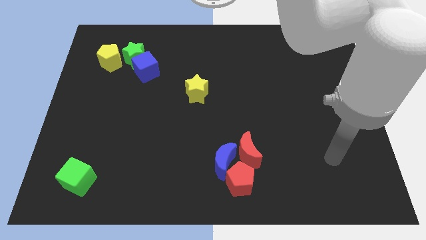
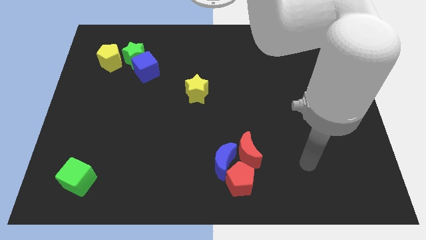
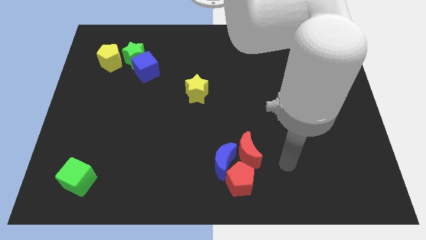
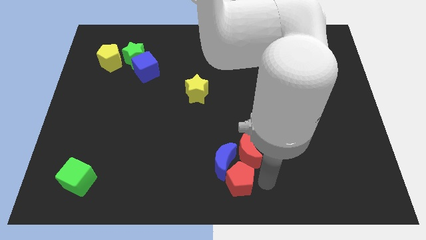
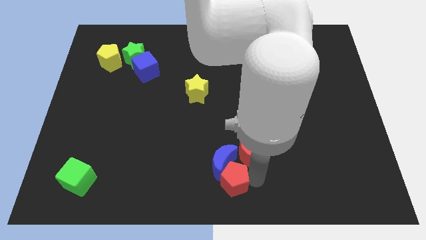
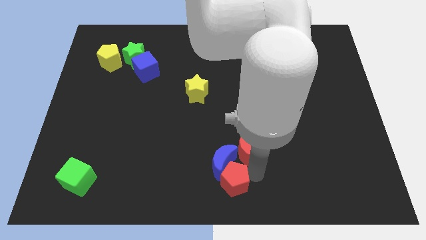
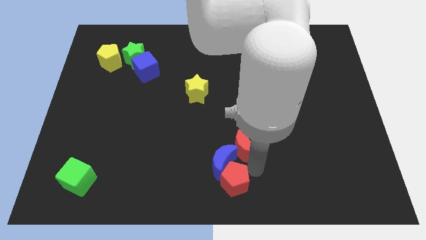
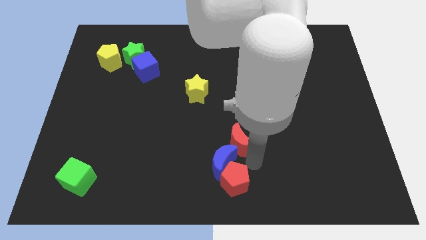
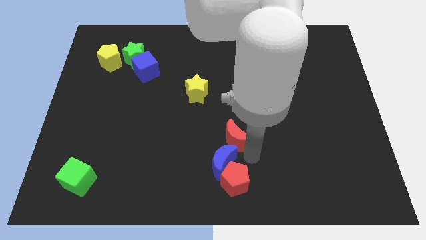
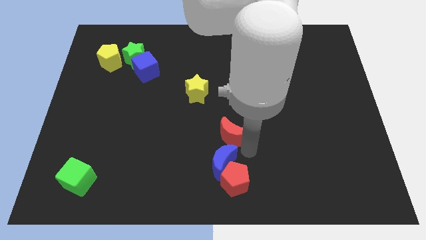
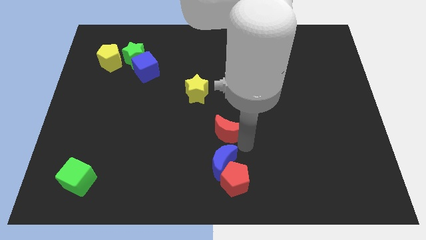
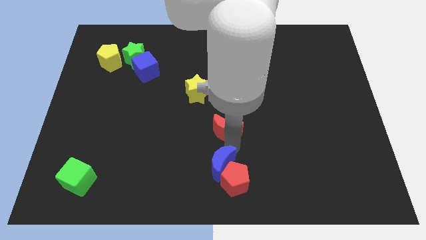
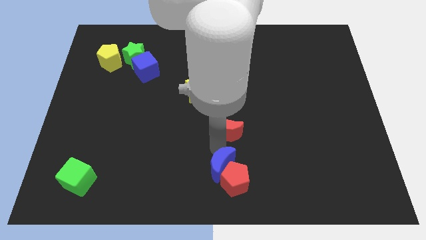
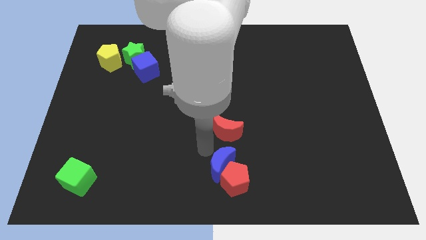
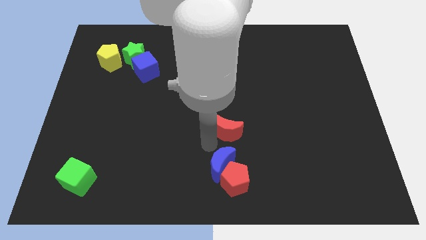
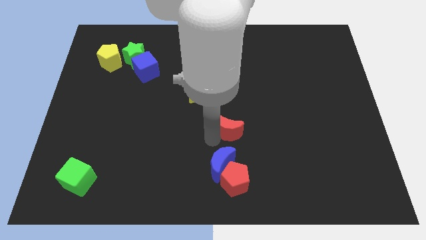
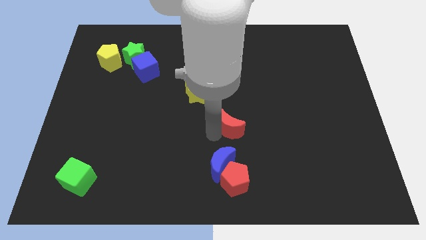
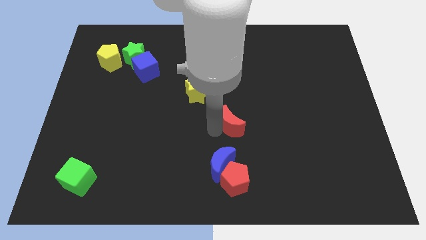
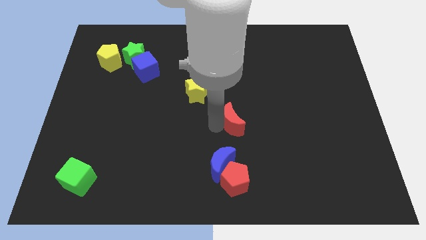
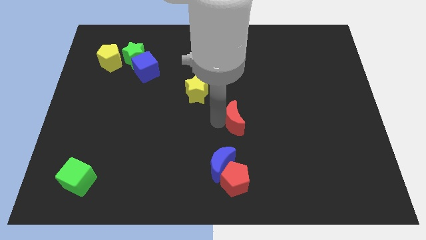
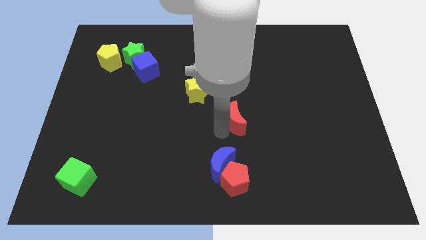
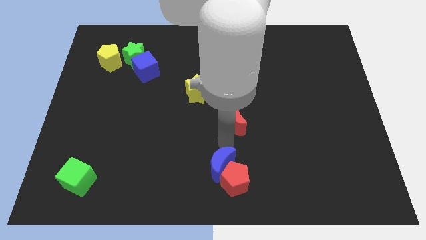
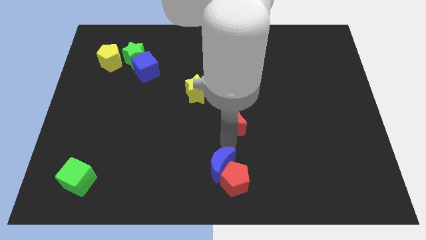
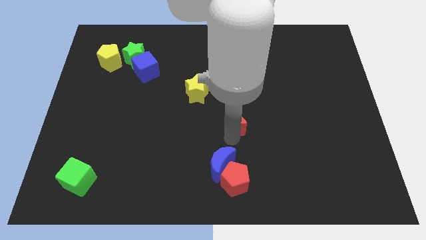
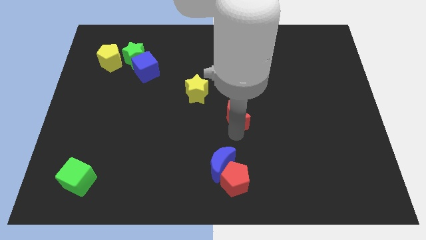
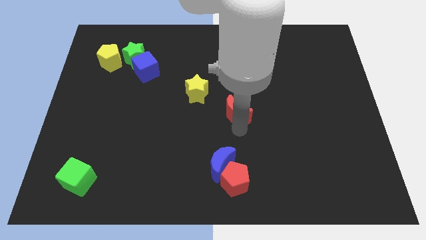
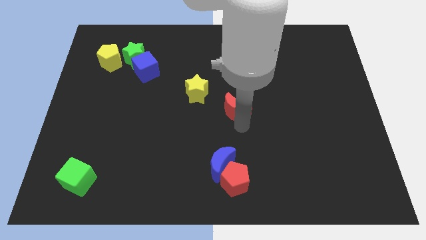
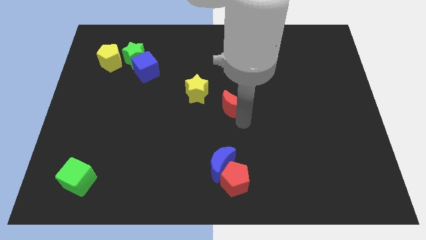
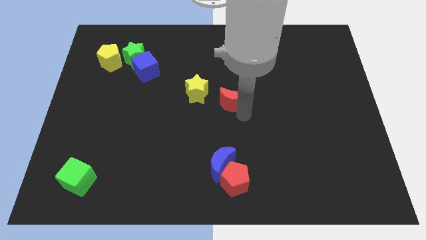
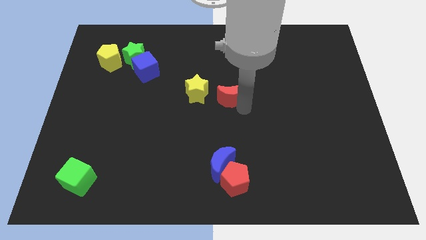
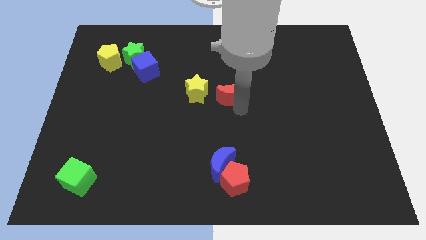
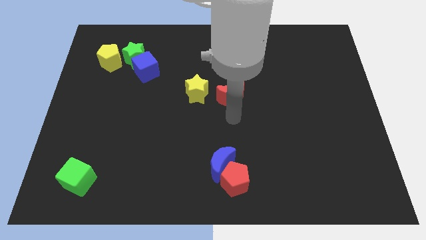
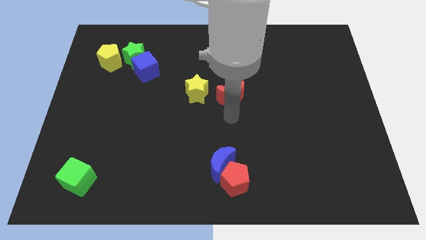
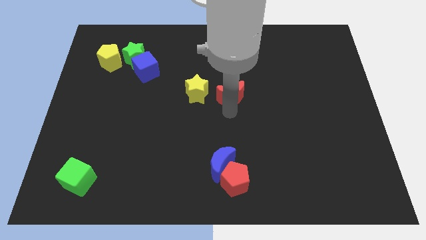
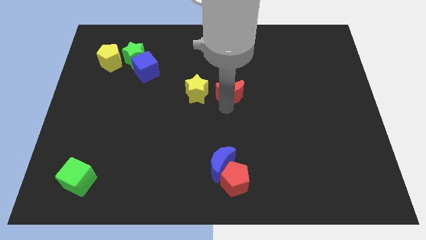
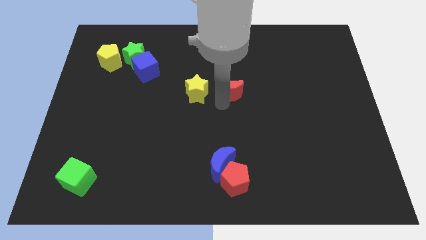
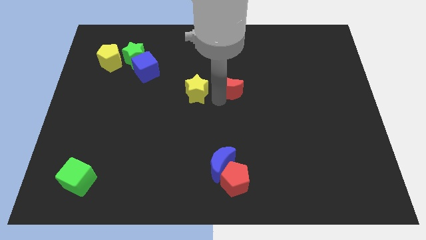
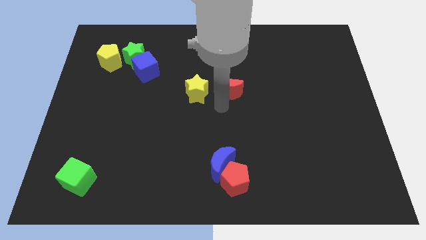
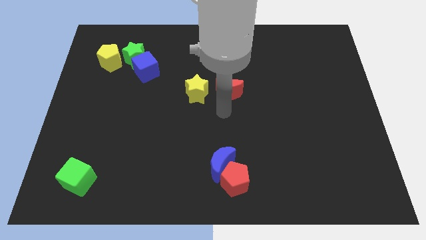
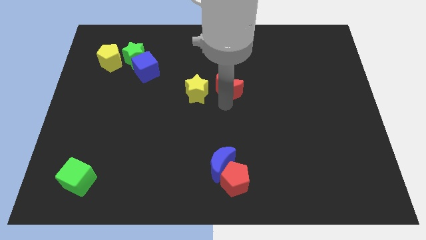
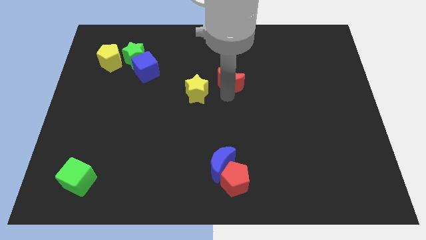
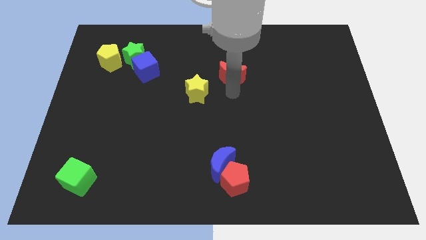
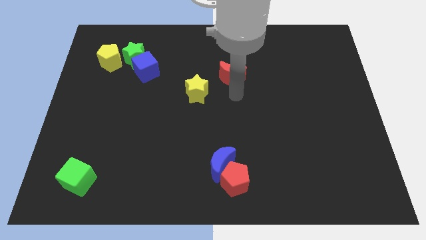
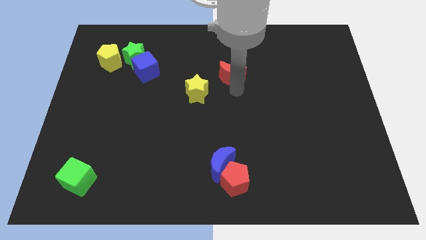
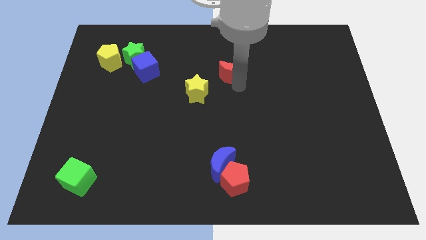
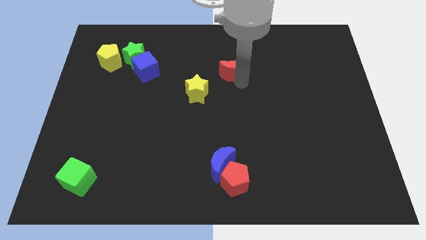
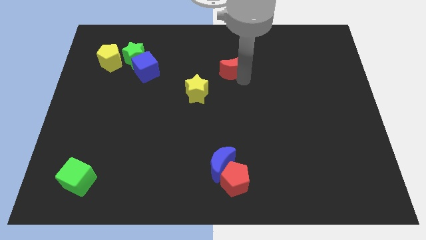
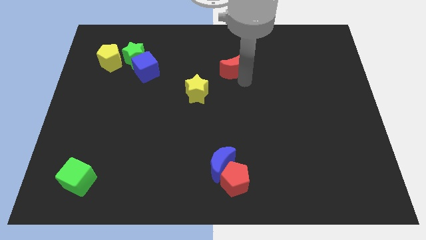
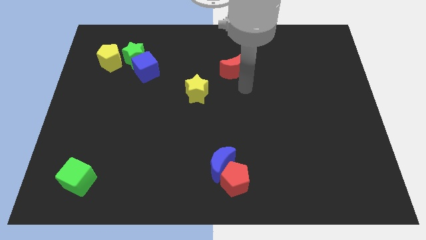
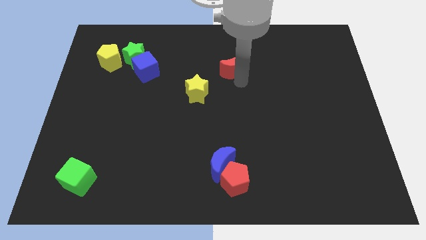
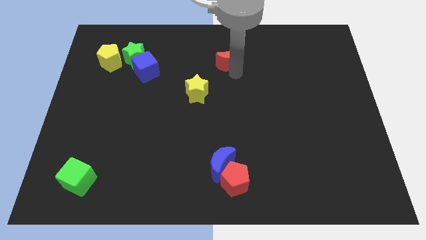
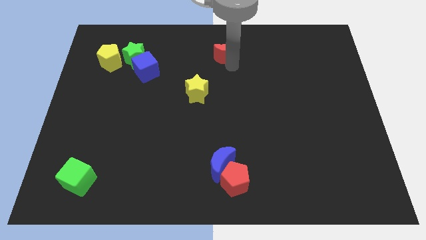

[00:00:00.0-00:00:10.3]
put the red moon to the top side

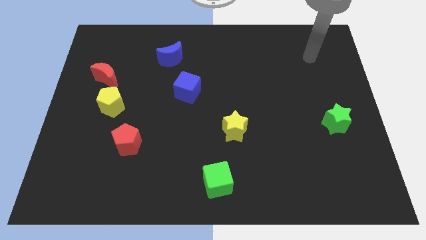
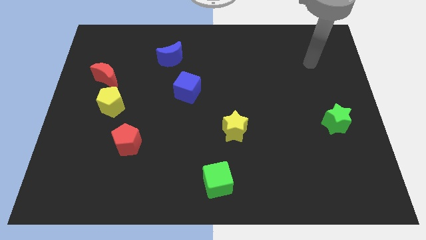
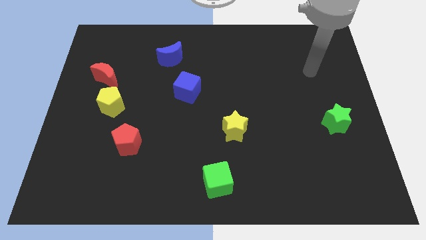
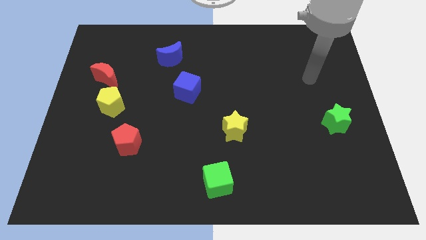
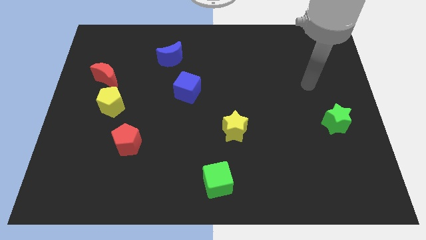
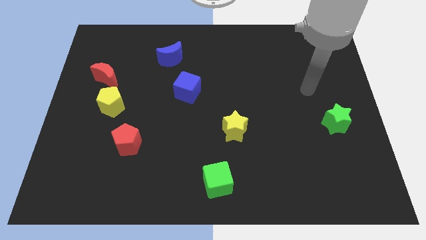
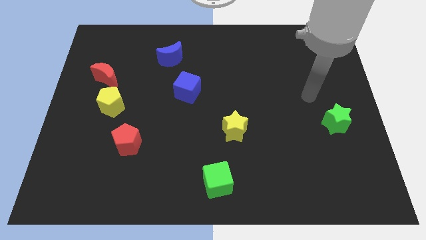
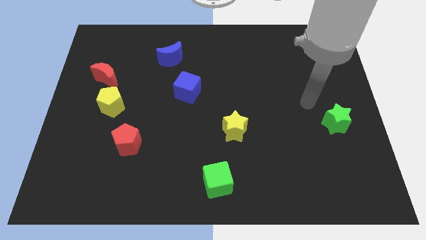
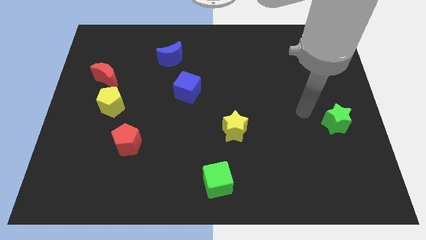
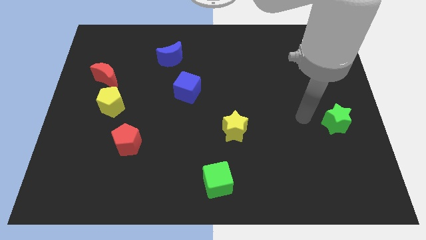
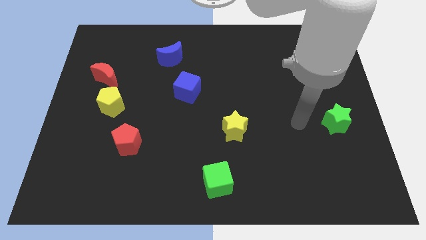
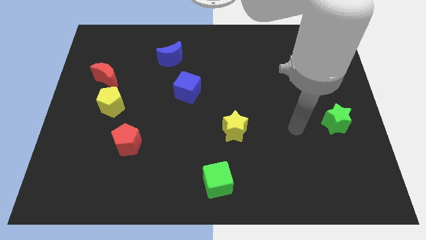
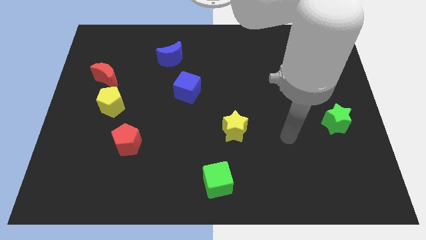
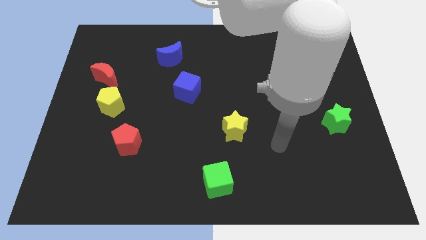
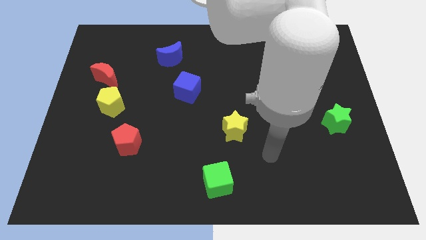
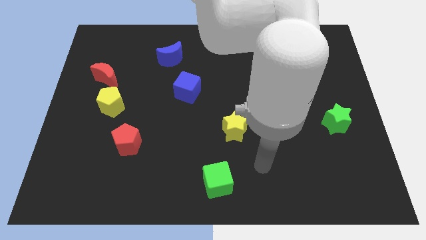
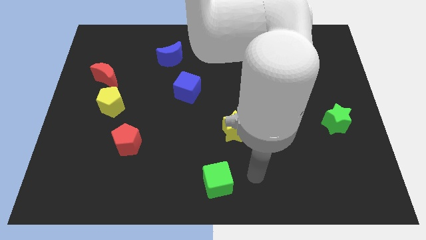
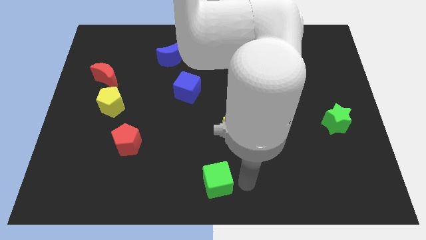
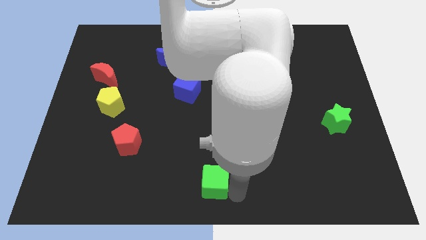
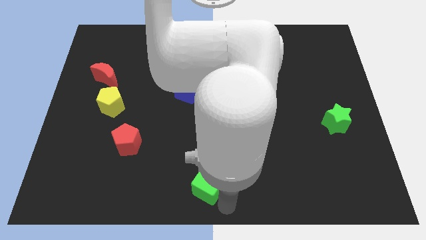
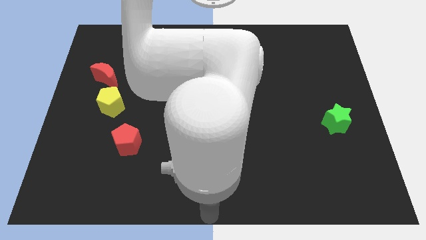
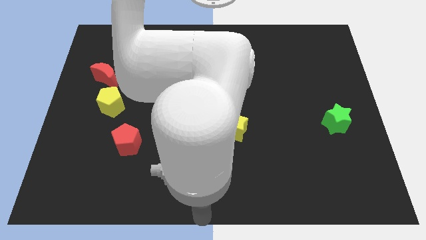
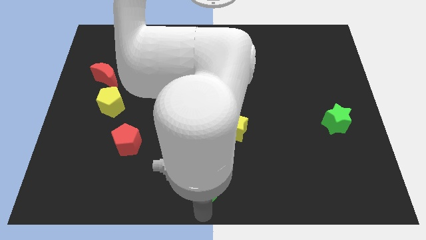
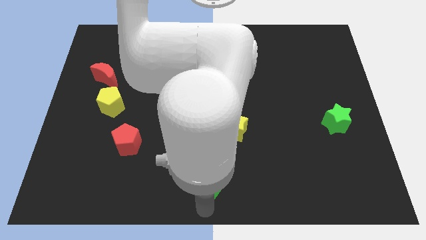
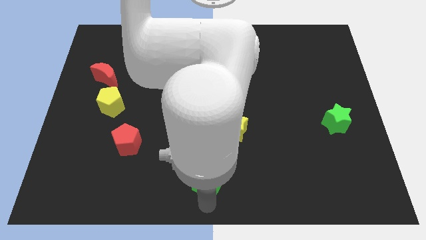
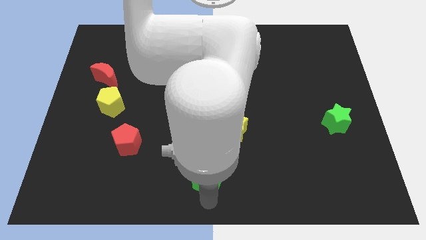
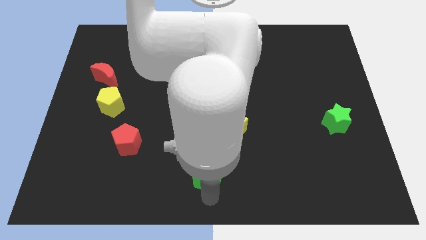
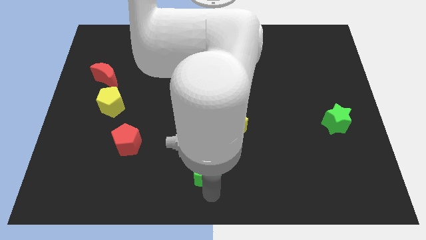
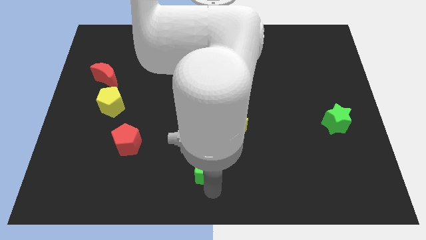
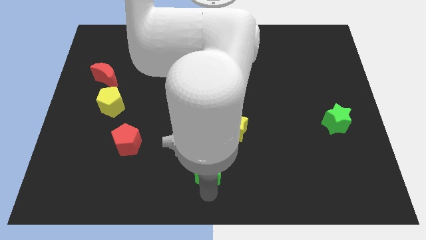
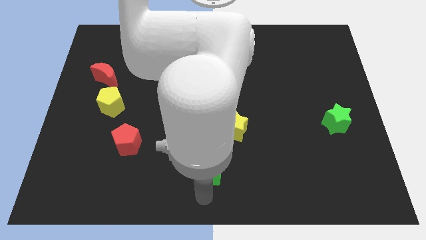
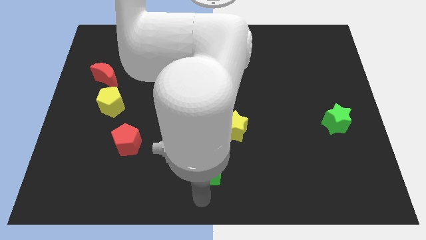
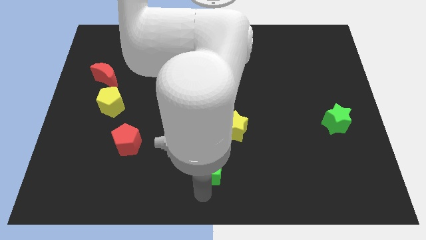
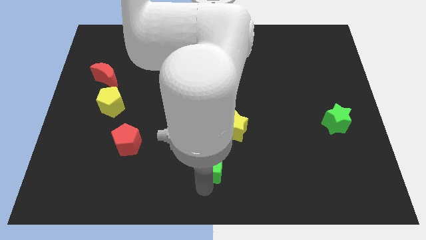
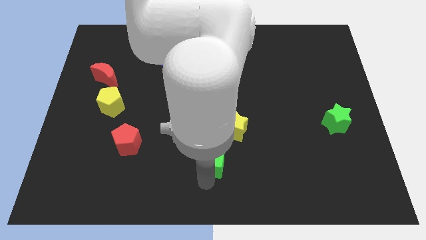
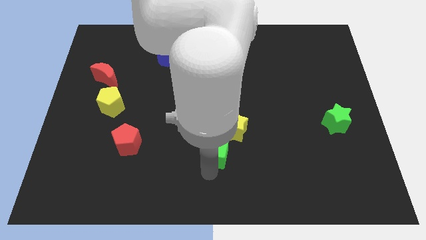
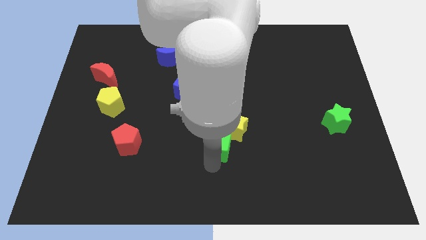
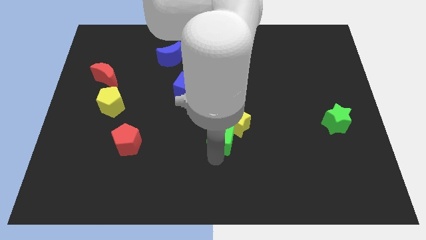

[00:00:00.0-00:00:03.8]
slide the green cube to the center of the board
